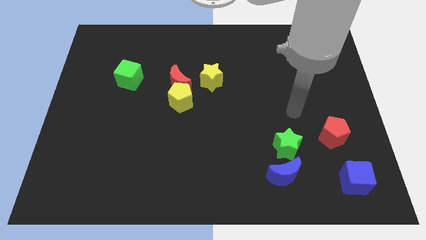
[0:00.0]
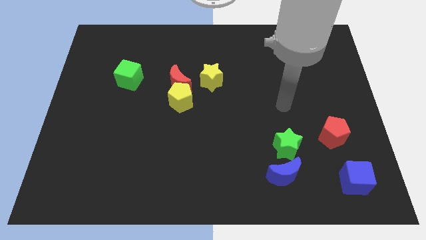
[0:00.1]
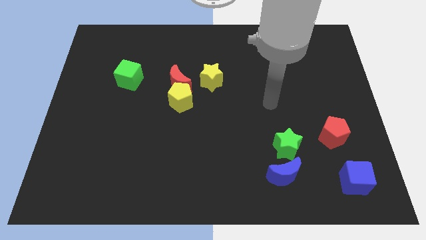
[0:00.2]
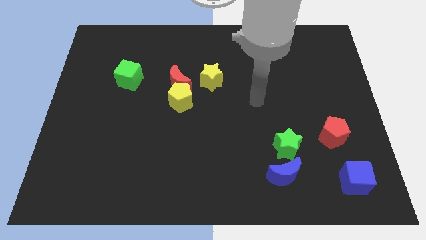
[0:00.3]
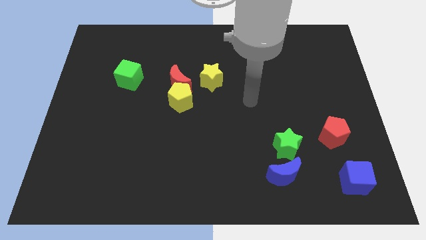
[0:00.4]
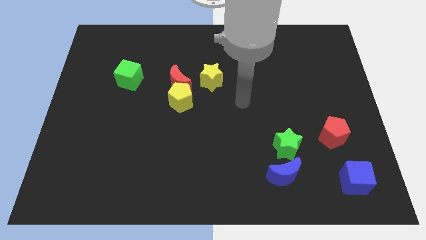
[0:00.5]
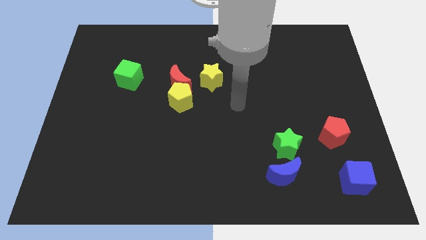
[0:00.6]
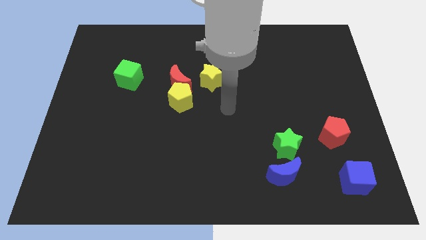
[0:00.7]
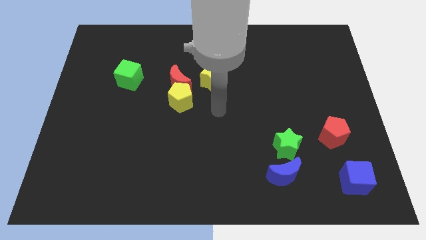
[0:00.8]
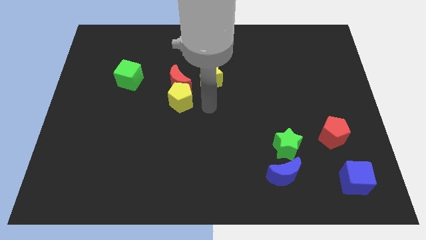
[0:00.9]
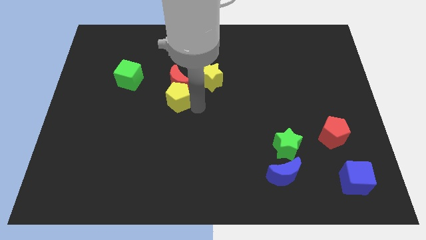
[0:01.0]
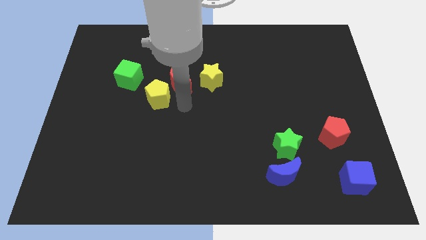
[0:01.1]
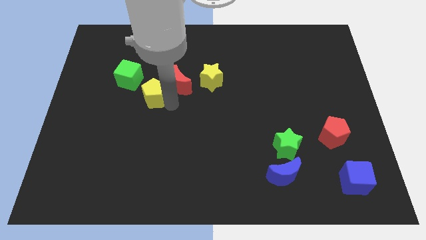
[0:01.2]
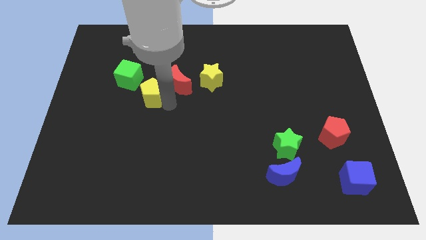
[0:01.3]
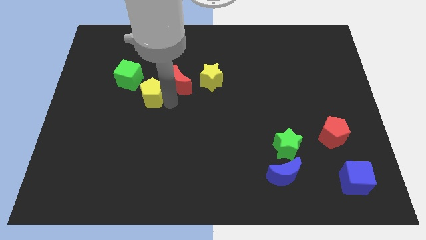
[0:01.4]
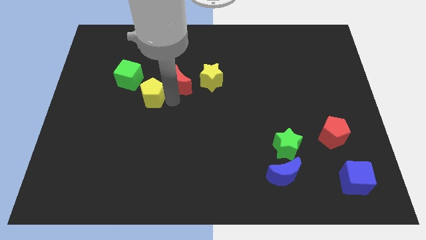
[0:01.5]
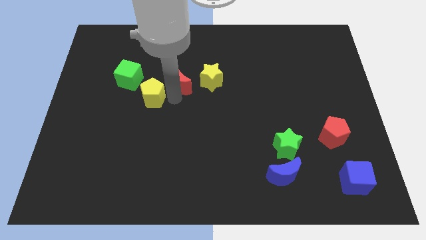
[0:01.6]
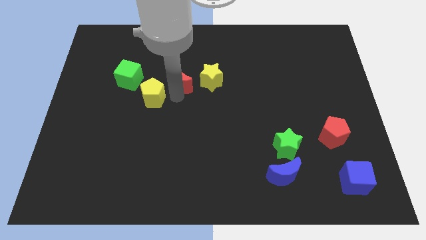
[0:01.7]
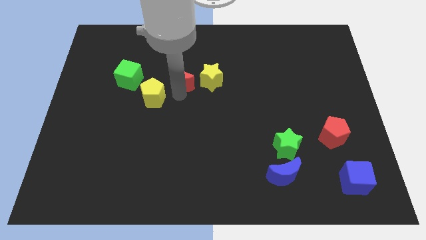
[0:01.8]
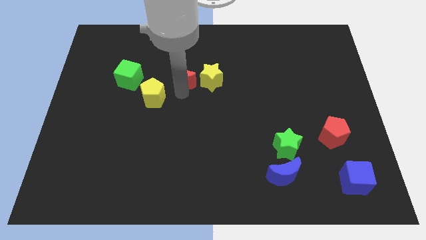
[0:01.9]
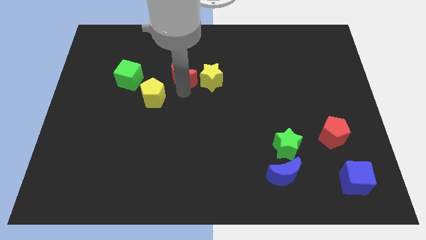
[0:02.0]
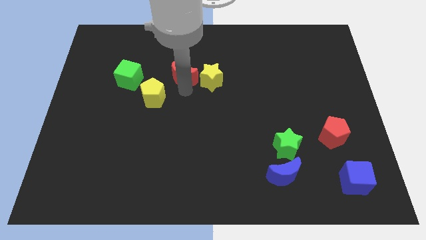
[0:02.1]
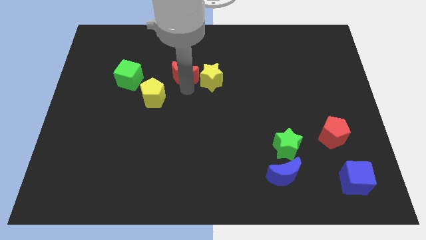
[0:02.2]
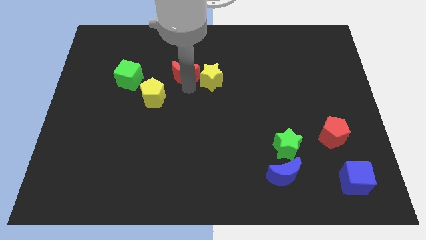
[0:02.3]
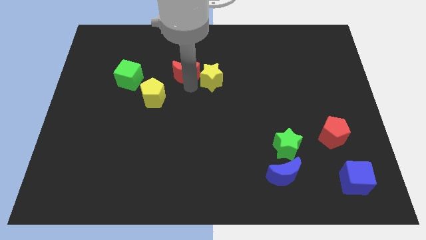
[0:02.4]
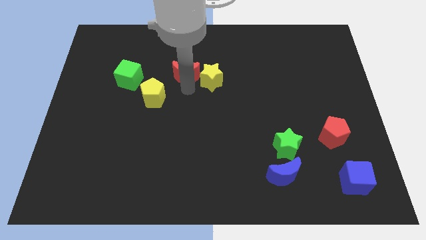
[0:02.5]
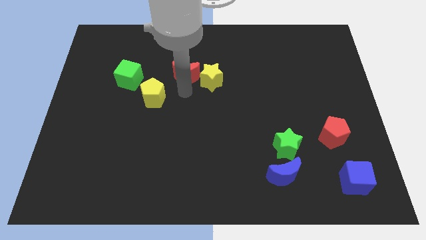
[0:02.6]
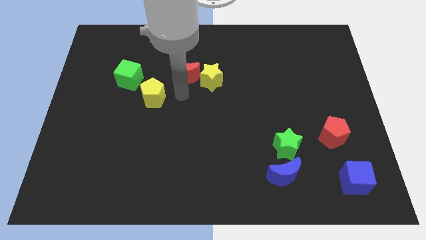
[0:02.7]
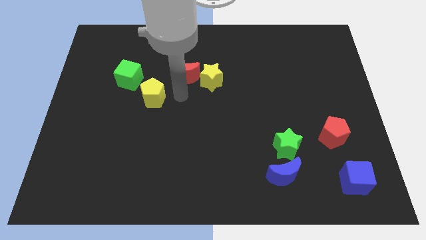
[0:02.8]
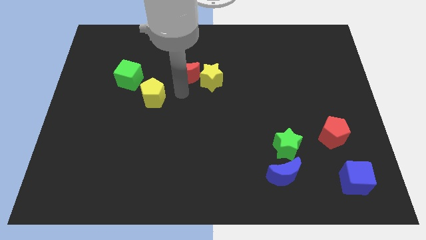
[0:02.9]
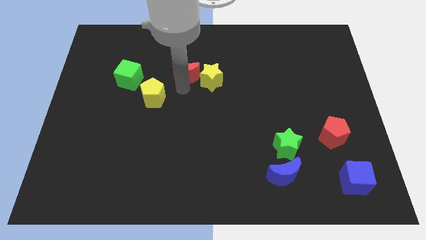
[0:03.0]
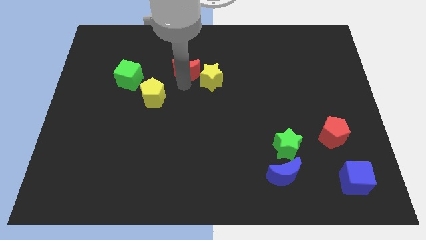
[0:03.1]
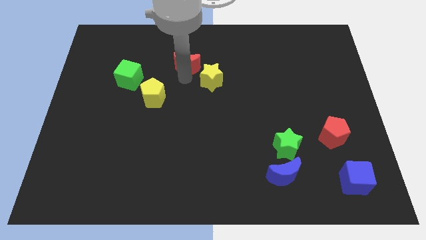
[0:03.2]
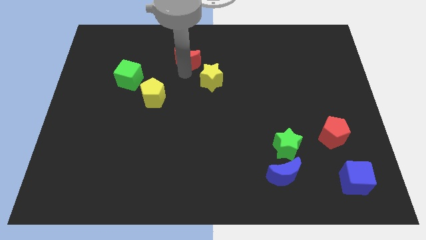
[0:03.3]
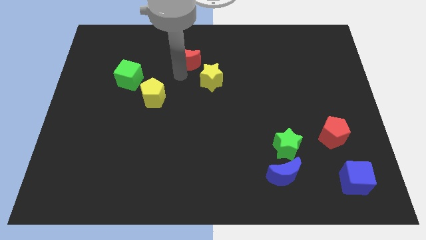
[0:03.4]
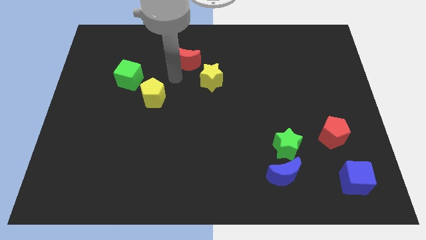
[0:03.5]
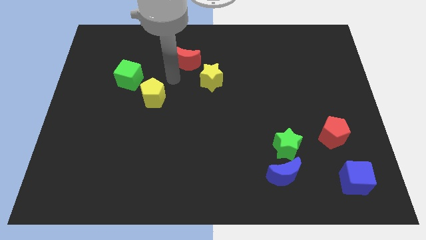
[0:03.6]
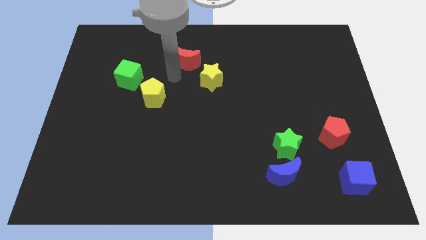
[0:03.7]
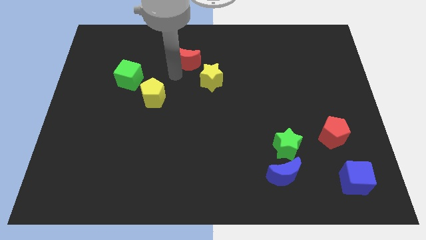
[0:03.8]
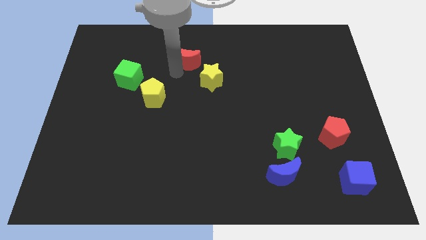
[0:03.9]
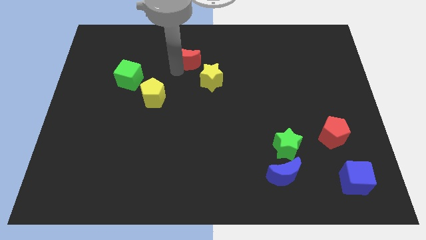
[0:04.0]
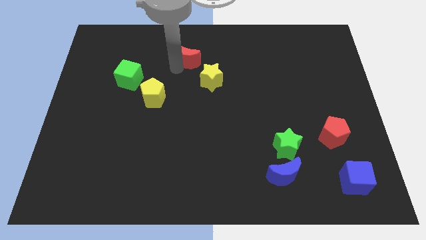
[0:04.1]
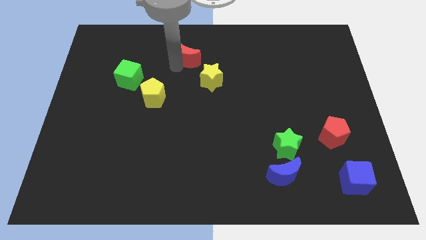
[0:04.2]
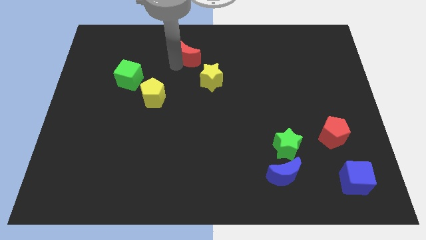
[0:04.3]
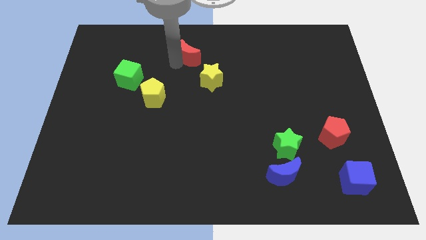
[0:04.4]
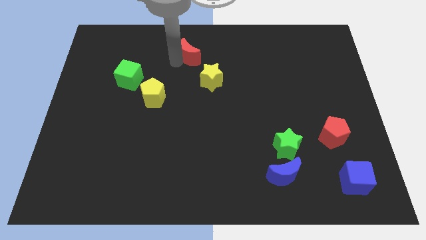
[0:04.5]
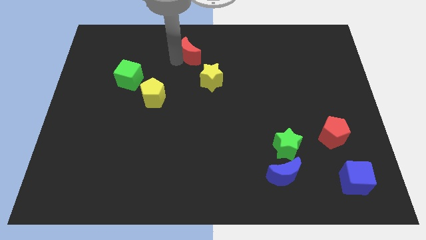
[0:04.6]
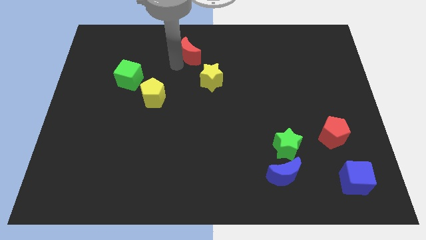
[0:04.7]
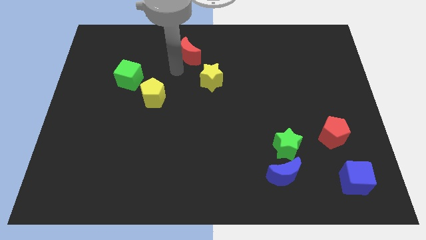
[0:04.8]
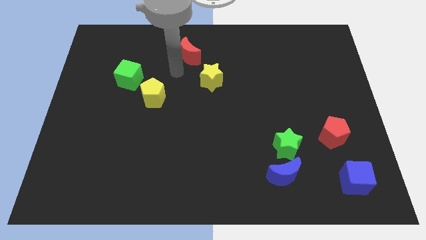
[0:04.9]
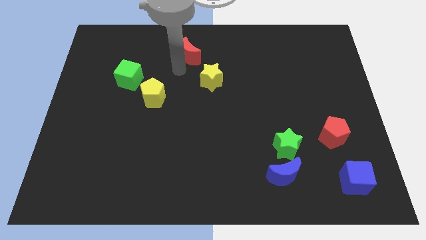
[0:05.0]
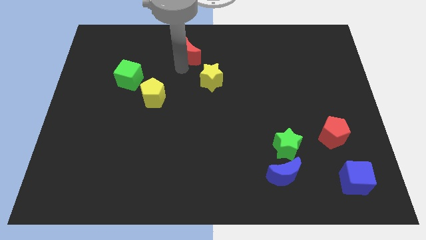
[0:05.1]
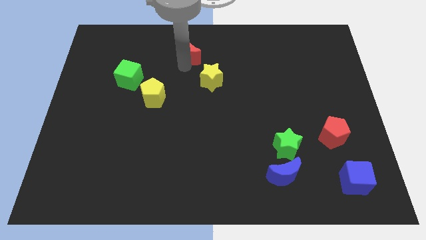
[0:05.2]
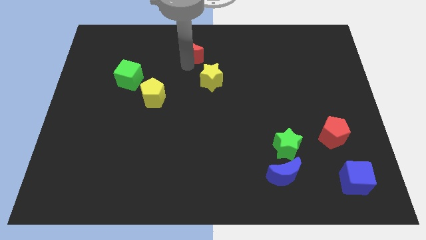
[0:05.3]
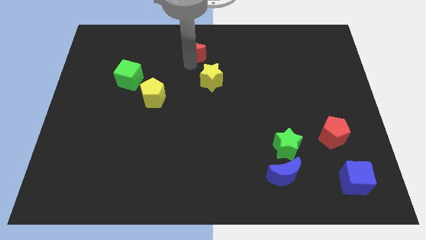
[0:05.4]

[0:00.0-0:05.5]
put the red moon to the top side

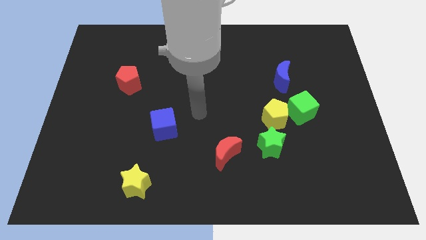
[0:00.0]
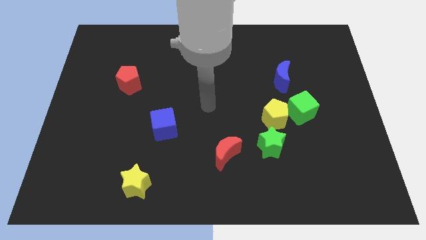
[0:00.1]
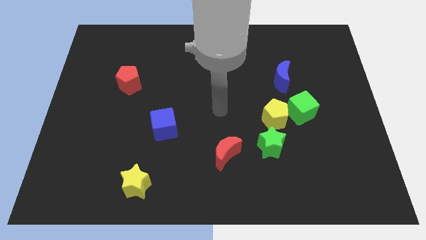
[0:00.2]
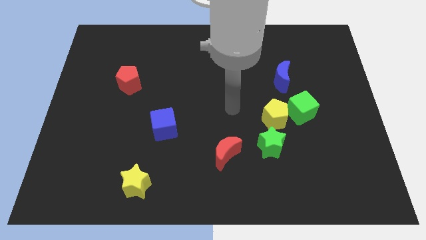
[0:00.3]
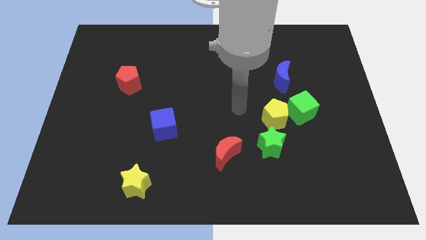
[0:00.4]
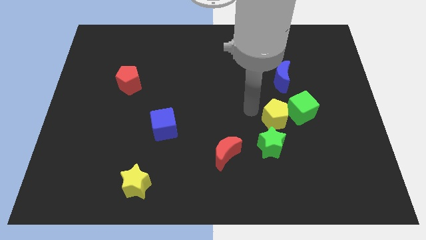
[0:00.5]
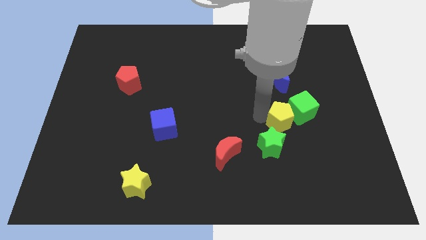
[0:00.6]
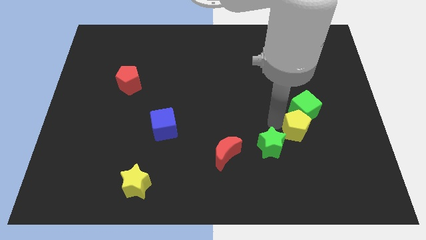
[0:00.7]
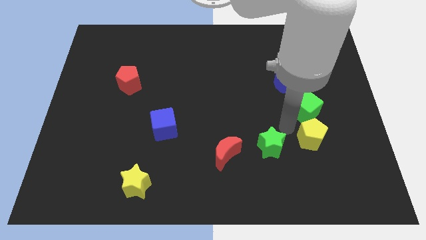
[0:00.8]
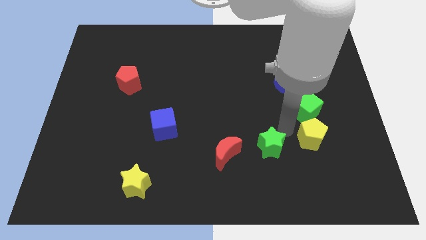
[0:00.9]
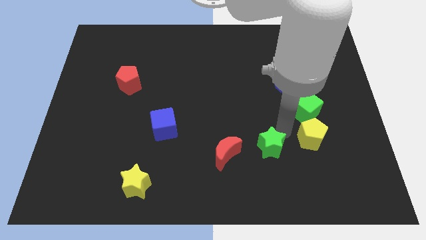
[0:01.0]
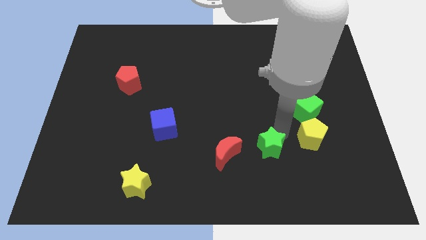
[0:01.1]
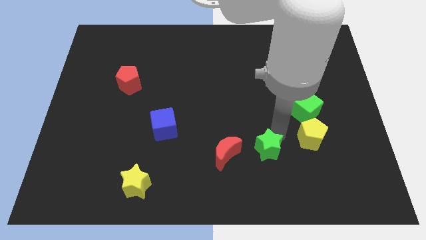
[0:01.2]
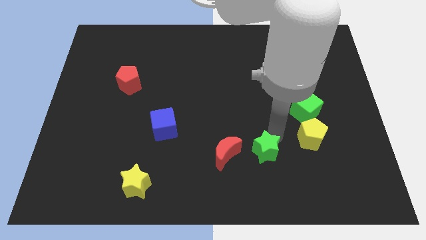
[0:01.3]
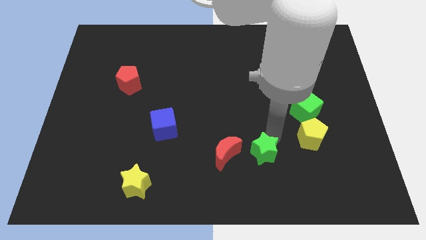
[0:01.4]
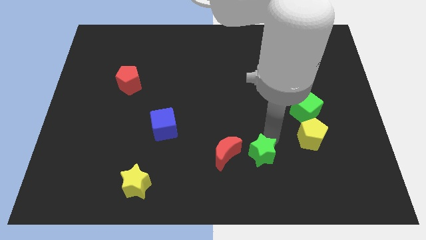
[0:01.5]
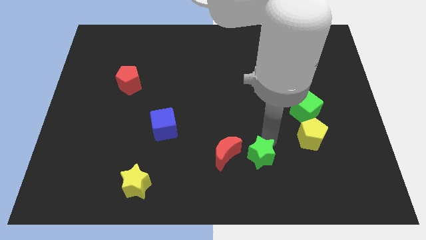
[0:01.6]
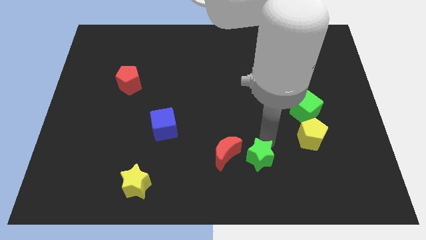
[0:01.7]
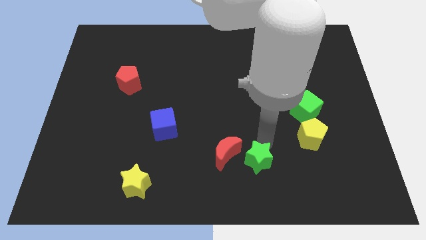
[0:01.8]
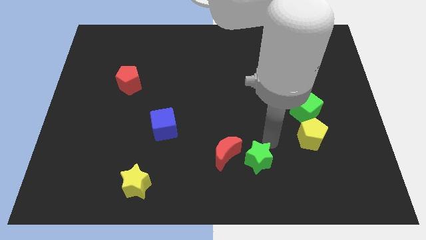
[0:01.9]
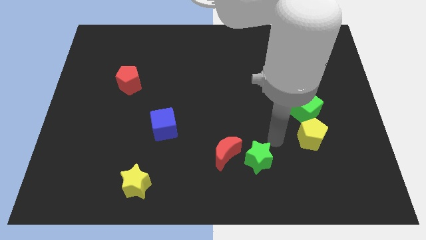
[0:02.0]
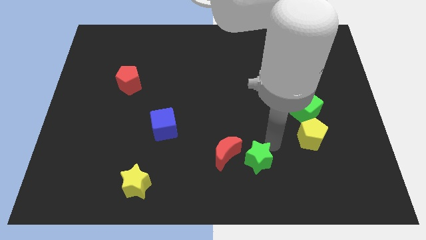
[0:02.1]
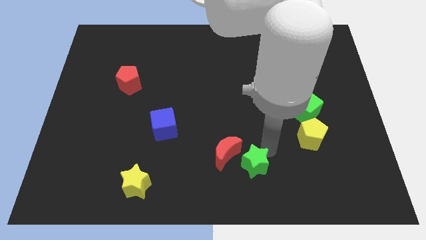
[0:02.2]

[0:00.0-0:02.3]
slide the green star to the bottom side
